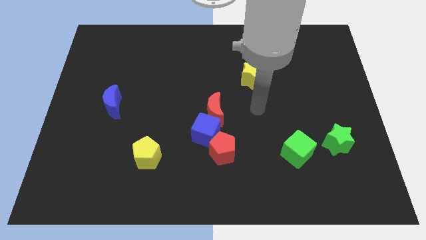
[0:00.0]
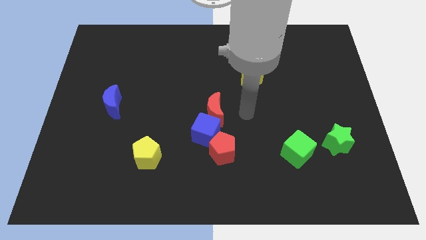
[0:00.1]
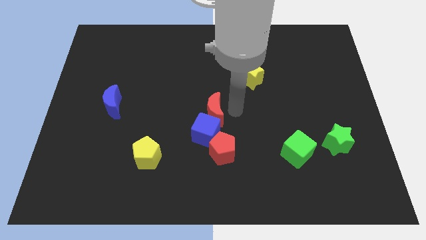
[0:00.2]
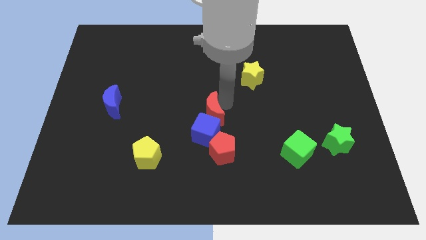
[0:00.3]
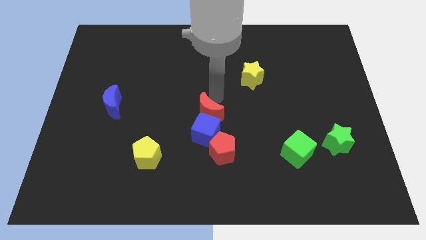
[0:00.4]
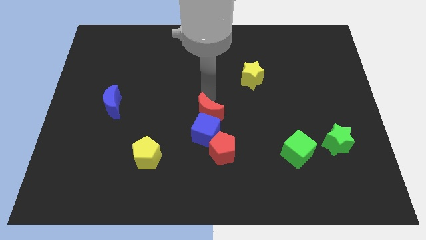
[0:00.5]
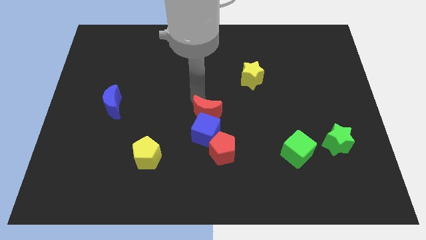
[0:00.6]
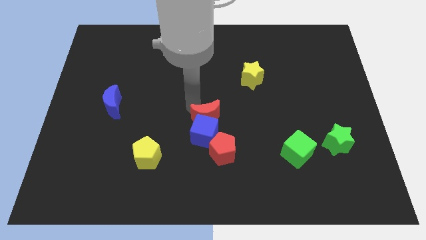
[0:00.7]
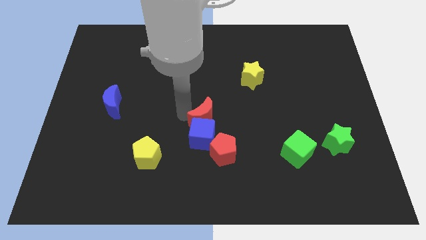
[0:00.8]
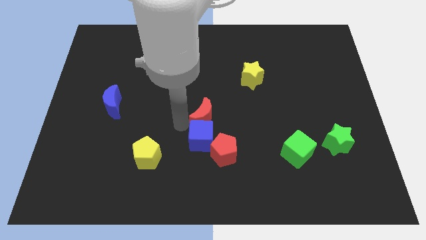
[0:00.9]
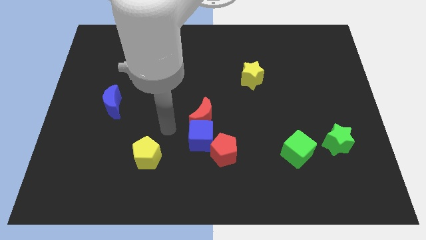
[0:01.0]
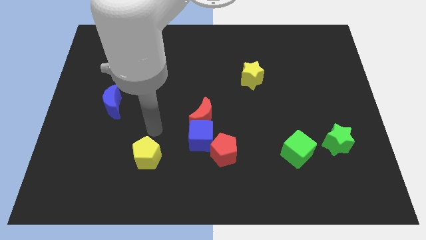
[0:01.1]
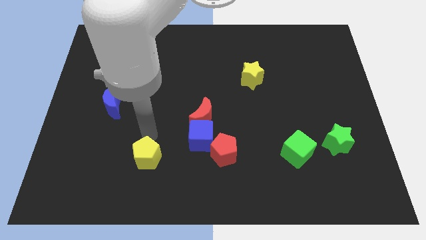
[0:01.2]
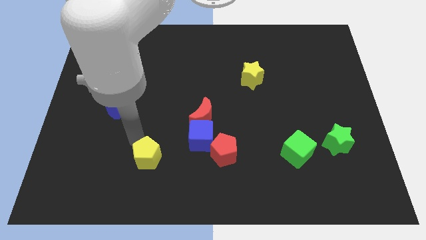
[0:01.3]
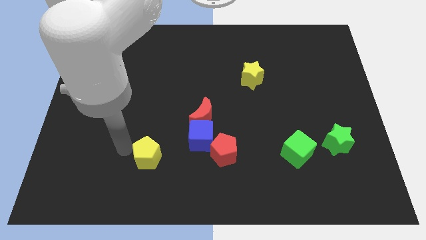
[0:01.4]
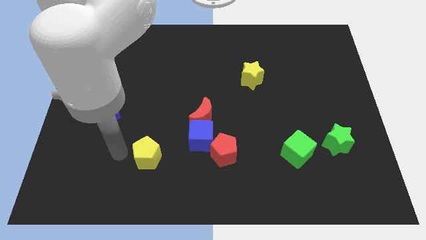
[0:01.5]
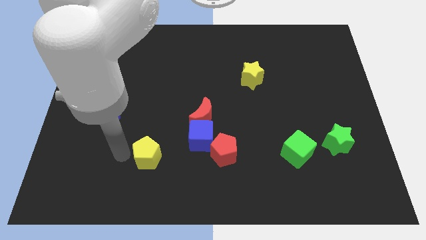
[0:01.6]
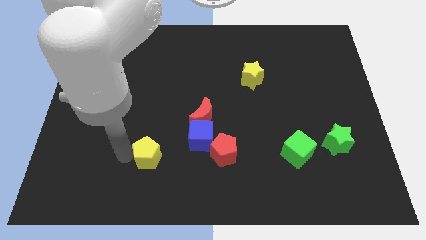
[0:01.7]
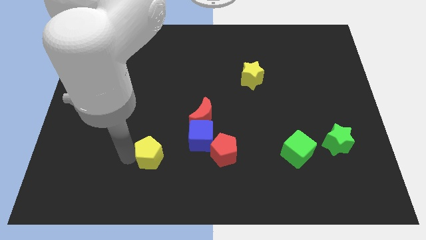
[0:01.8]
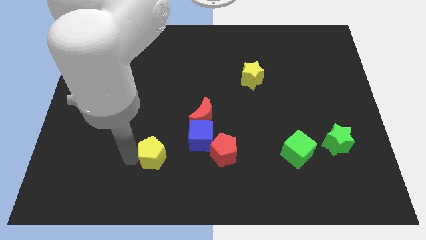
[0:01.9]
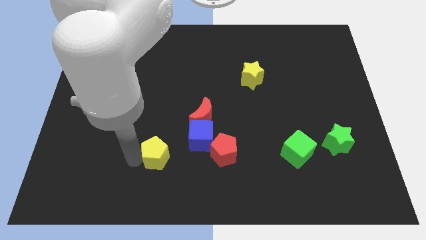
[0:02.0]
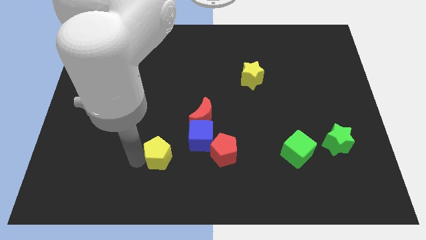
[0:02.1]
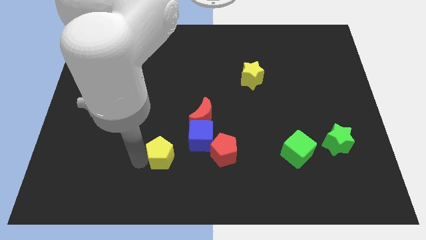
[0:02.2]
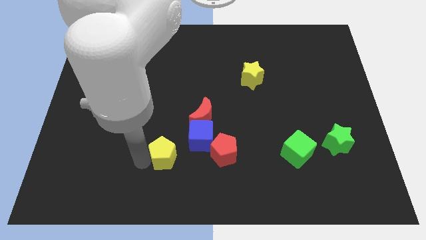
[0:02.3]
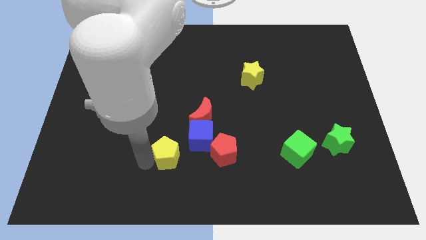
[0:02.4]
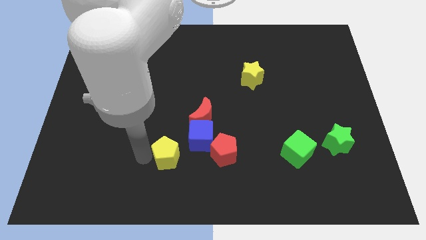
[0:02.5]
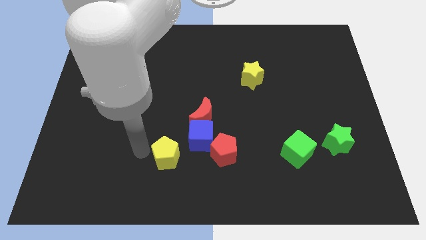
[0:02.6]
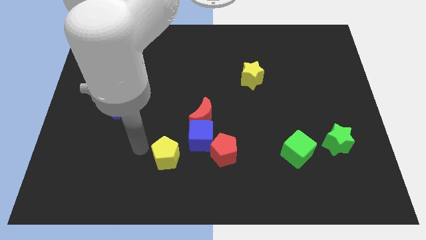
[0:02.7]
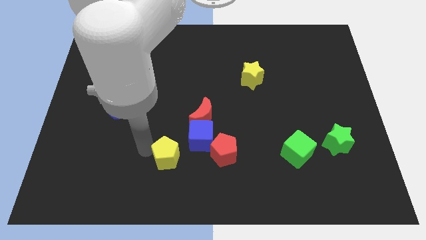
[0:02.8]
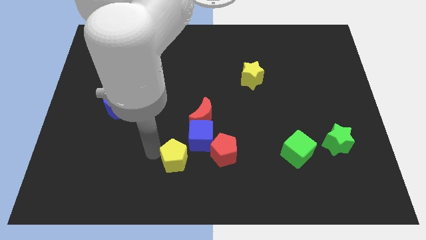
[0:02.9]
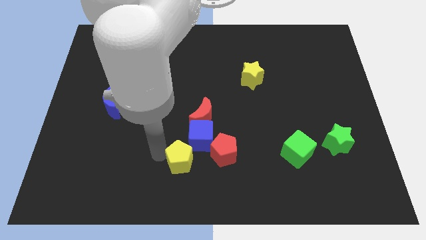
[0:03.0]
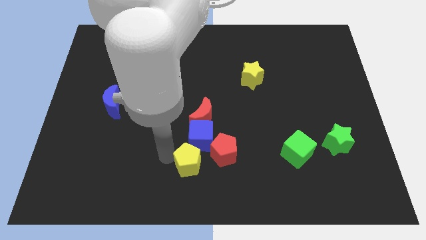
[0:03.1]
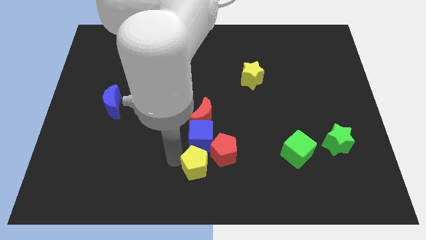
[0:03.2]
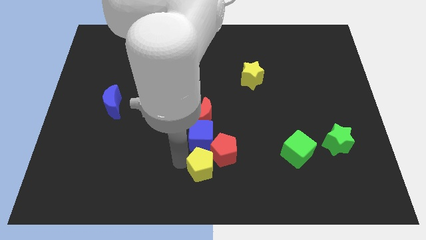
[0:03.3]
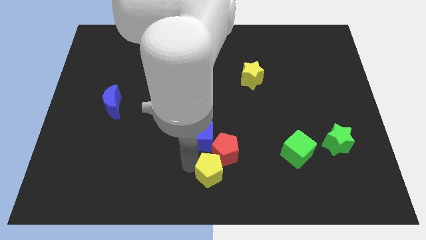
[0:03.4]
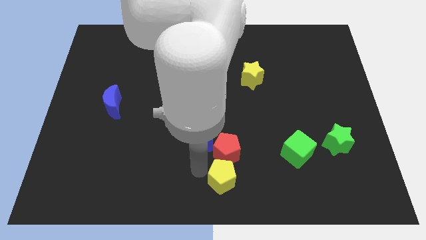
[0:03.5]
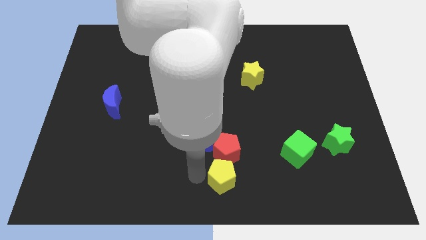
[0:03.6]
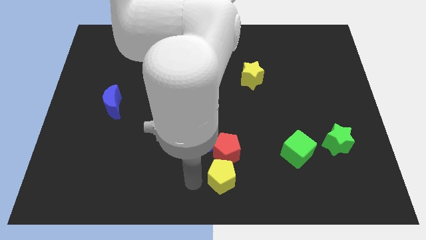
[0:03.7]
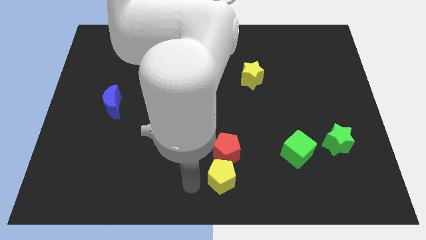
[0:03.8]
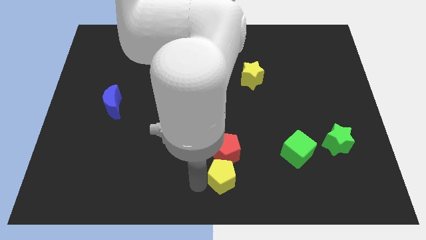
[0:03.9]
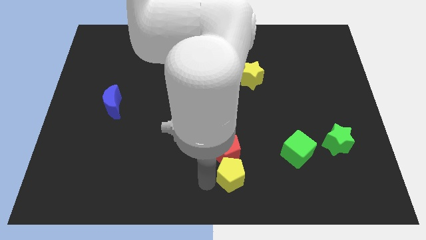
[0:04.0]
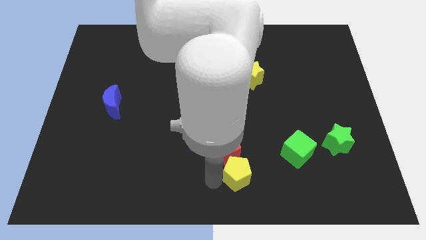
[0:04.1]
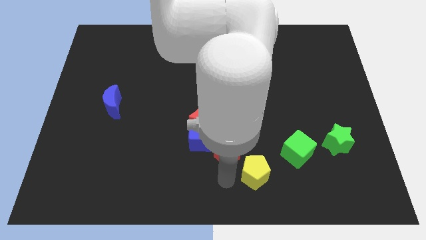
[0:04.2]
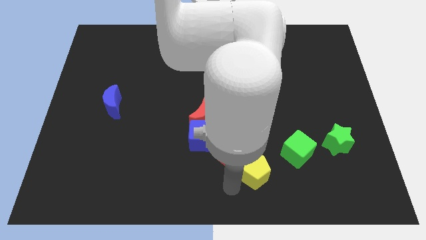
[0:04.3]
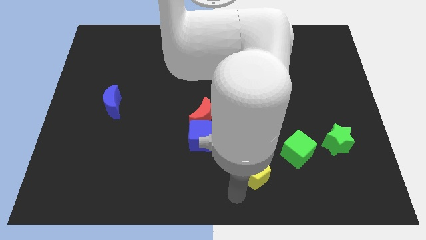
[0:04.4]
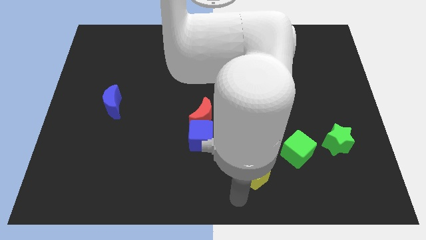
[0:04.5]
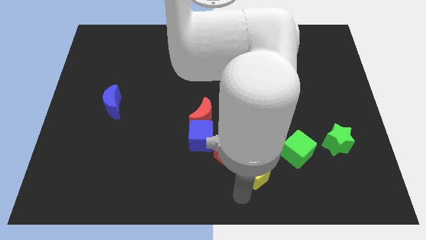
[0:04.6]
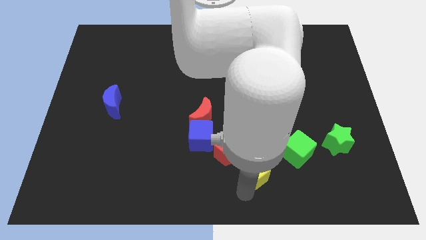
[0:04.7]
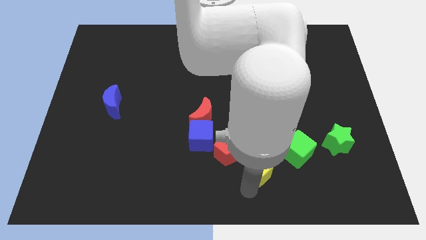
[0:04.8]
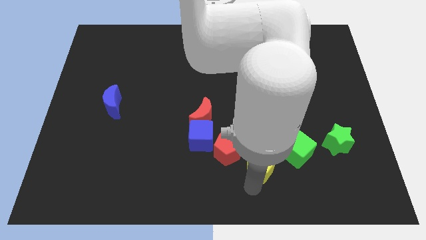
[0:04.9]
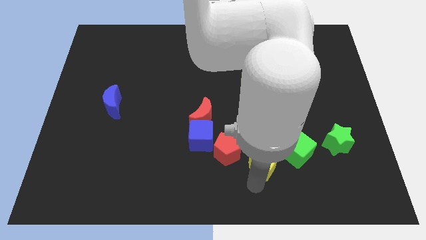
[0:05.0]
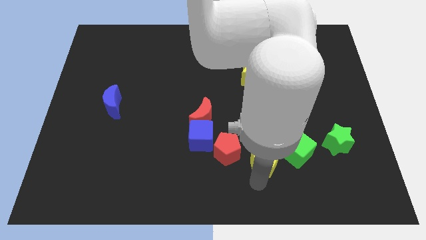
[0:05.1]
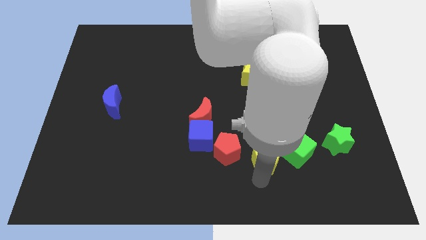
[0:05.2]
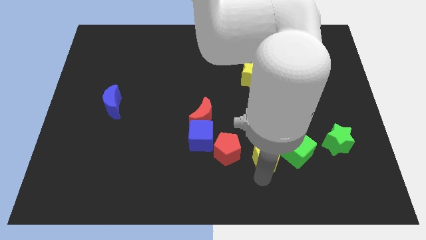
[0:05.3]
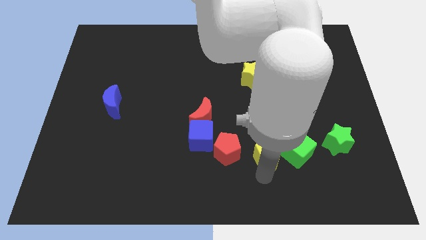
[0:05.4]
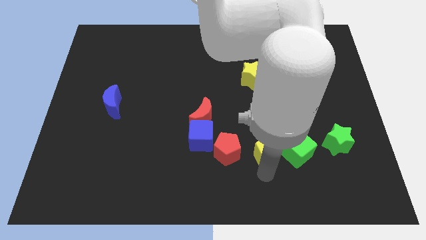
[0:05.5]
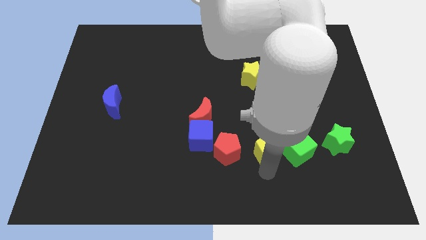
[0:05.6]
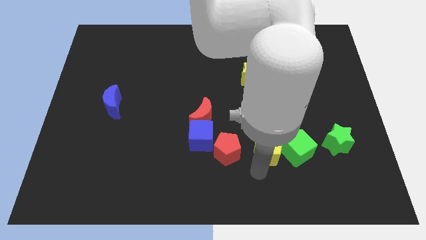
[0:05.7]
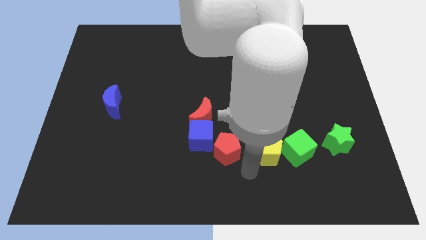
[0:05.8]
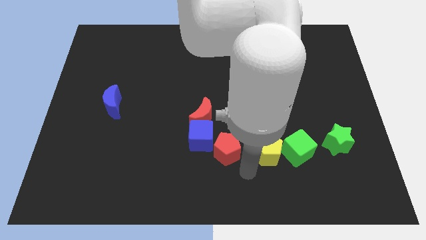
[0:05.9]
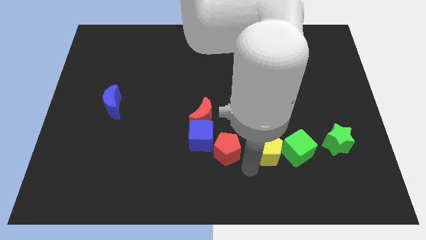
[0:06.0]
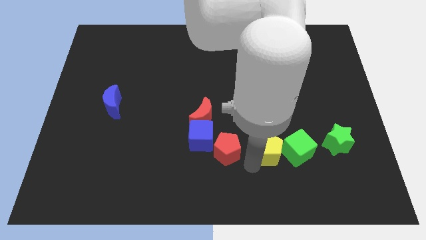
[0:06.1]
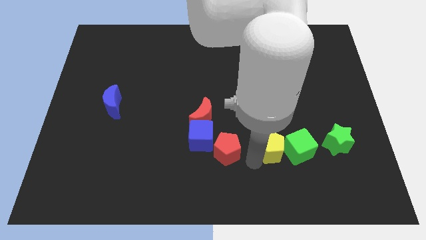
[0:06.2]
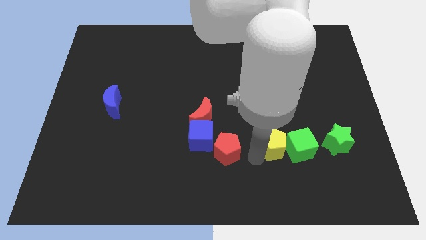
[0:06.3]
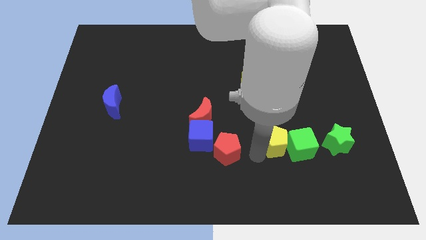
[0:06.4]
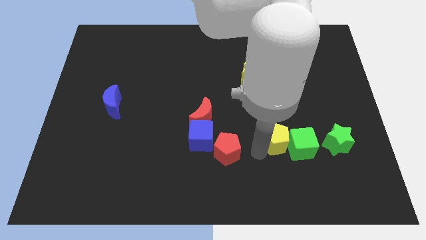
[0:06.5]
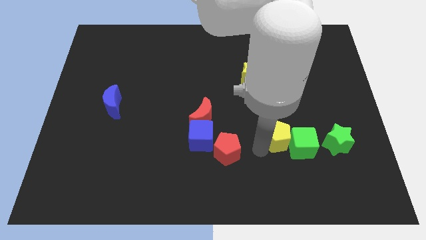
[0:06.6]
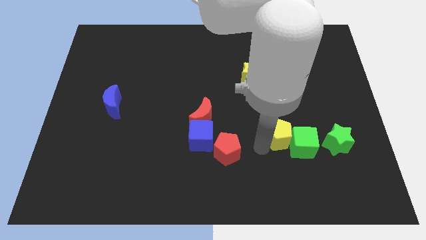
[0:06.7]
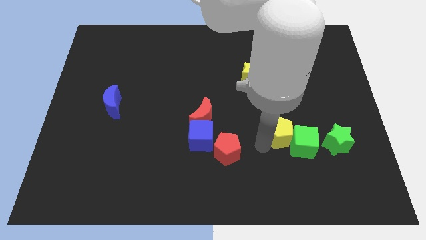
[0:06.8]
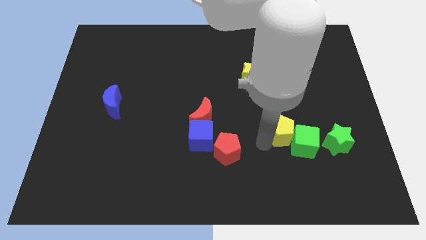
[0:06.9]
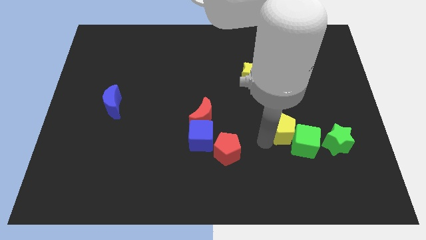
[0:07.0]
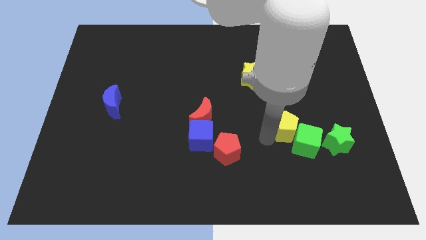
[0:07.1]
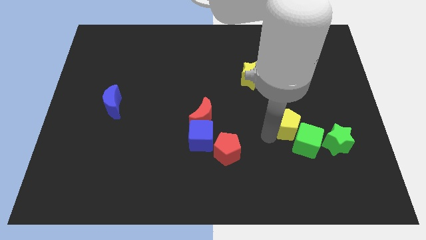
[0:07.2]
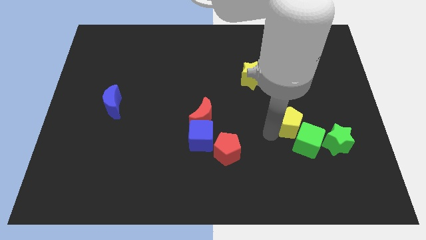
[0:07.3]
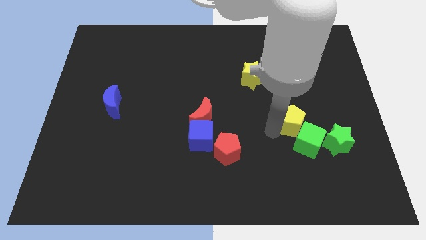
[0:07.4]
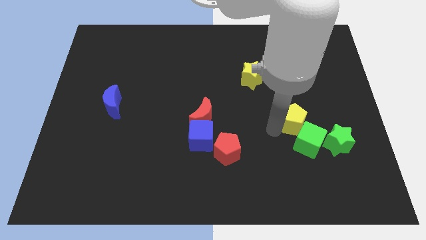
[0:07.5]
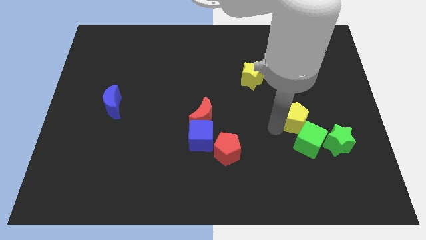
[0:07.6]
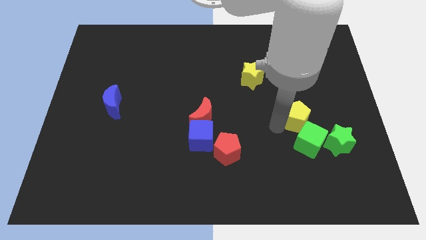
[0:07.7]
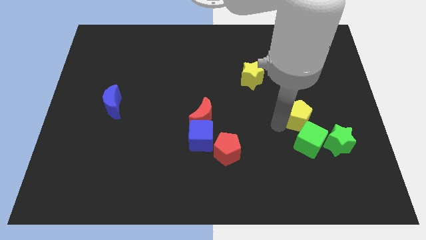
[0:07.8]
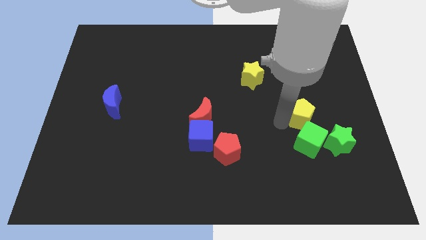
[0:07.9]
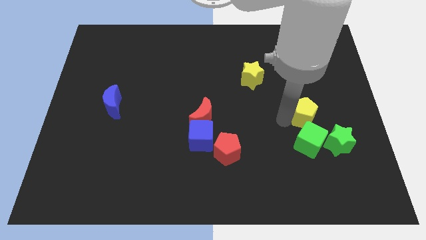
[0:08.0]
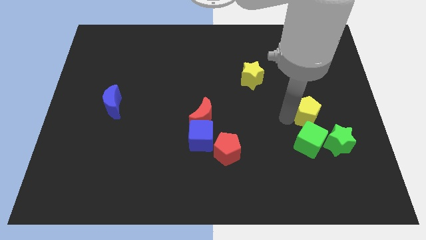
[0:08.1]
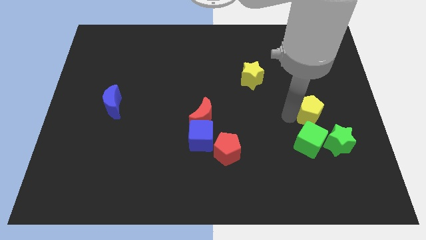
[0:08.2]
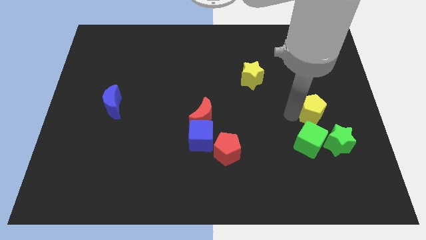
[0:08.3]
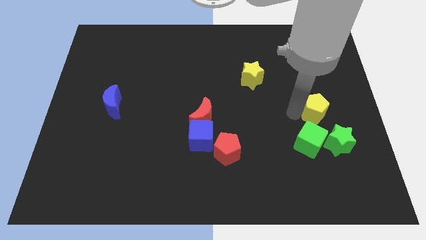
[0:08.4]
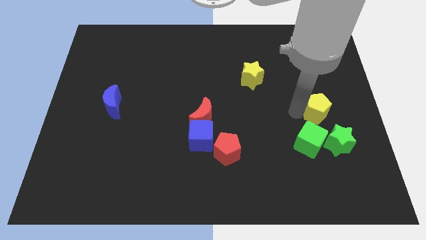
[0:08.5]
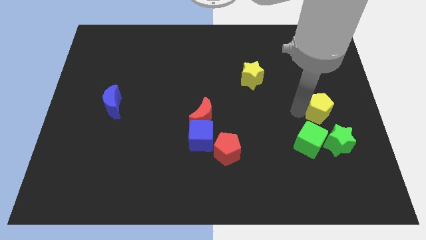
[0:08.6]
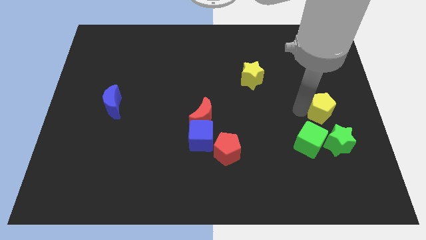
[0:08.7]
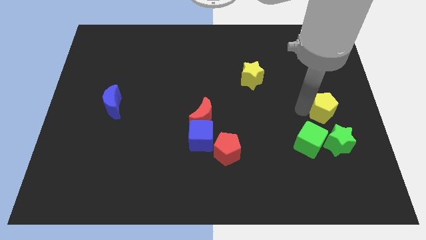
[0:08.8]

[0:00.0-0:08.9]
put the yellow pentagon to the center right
